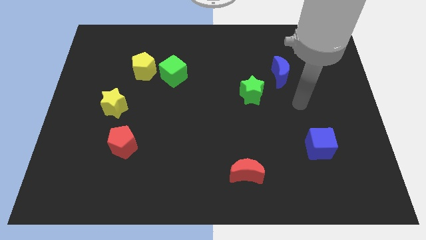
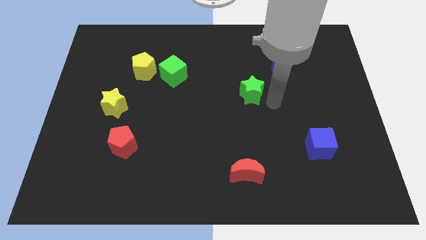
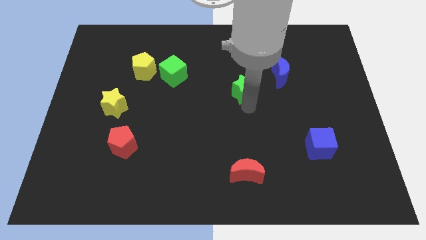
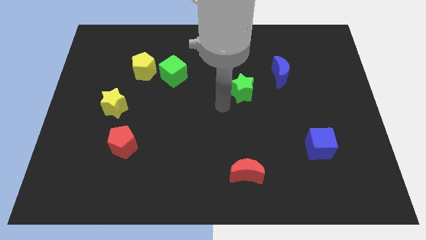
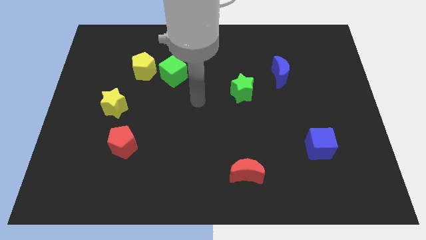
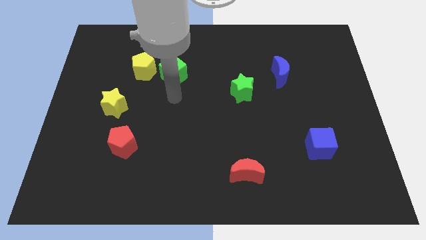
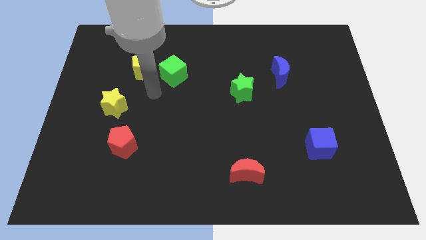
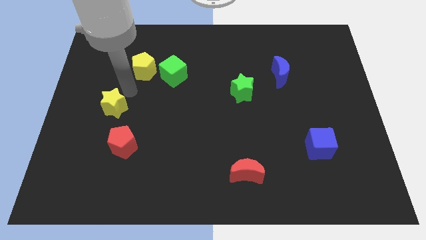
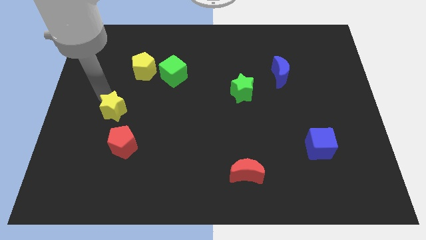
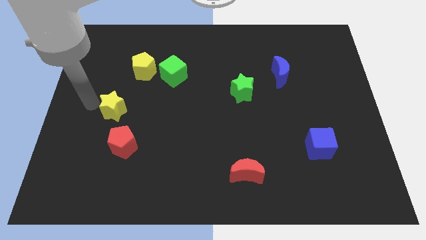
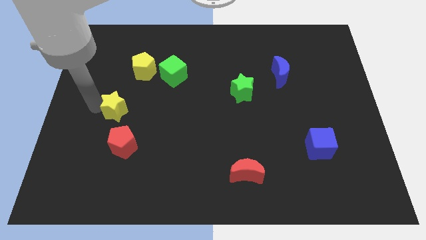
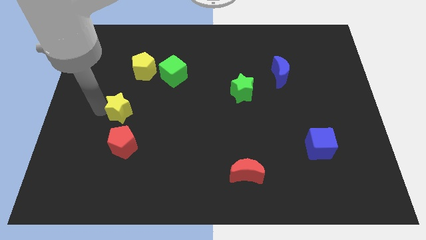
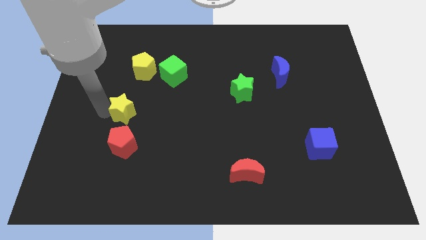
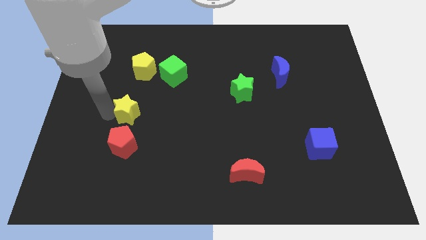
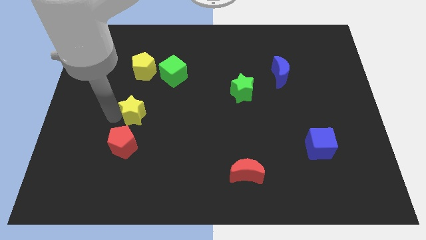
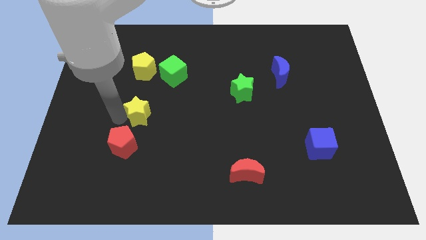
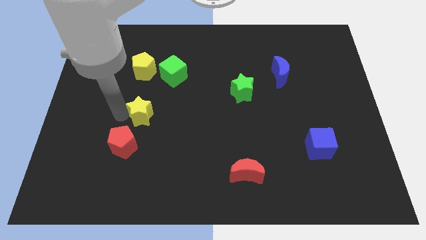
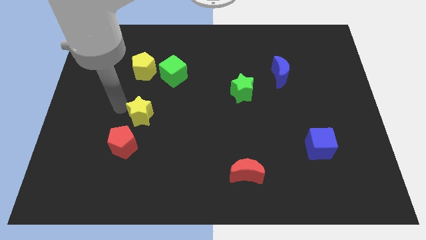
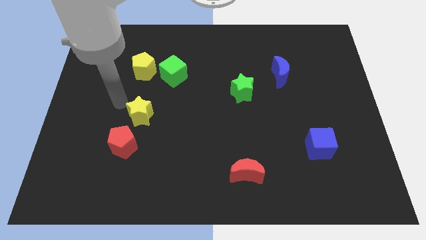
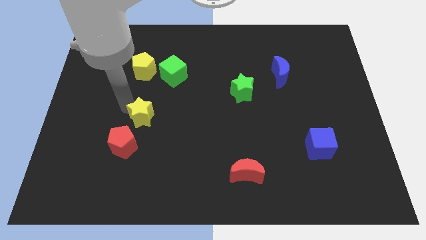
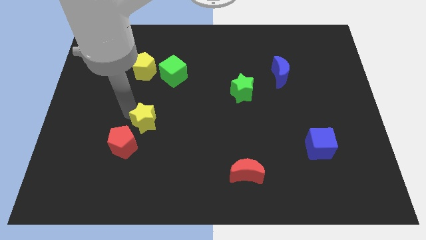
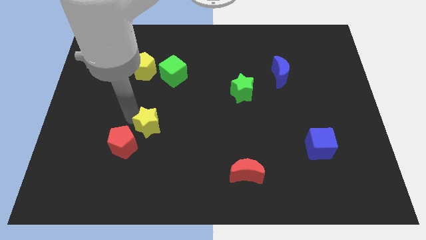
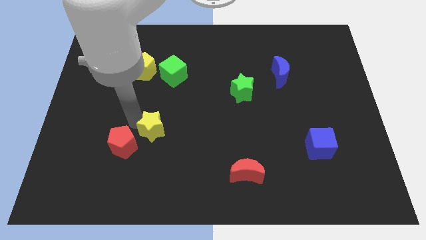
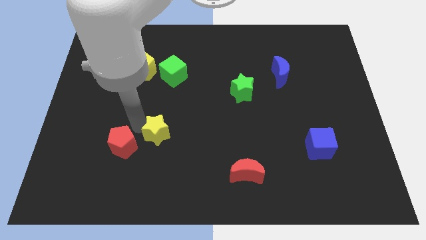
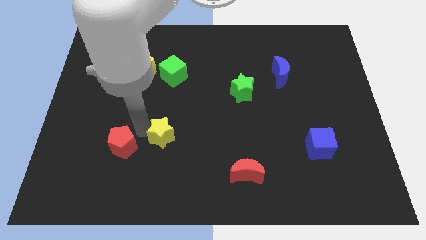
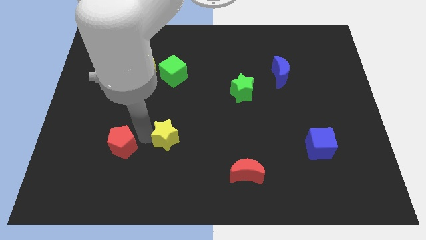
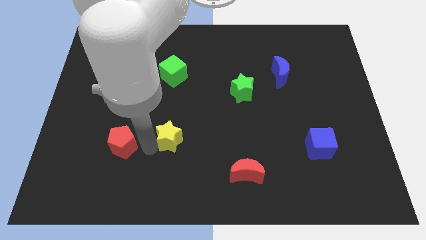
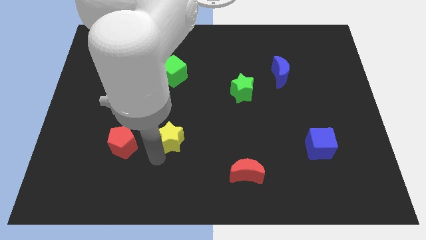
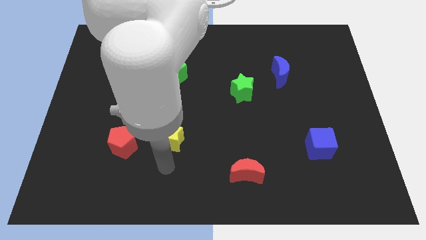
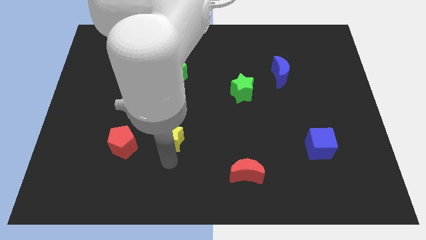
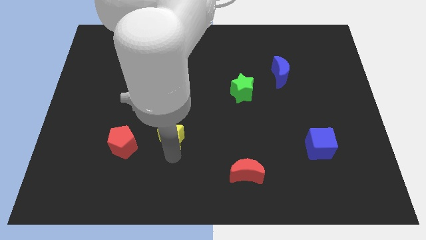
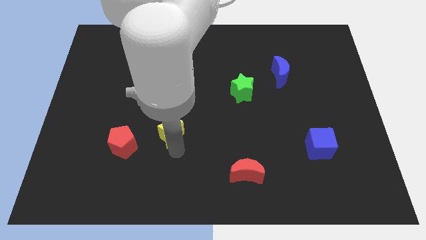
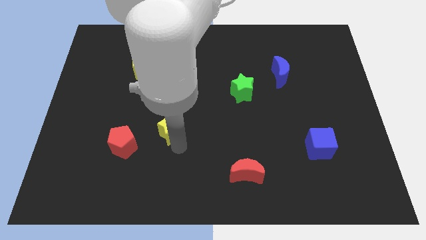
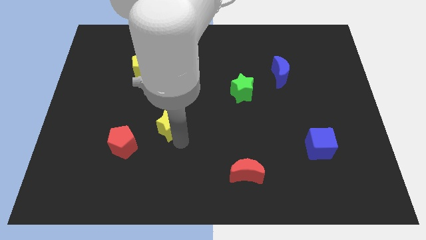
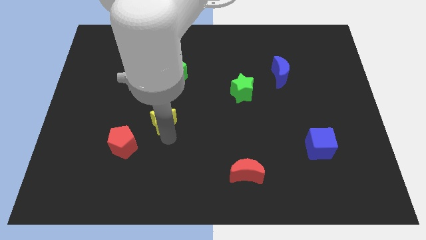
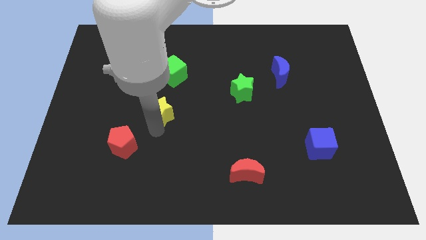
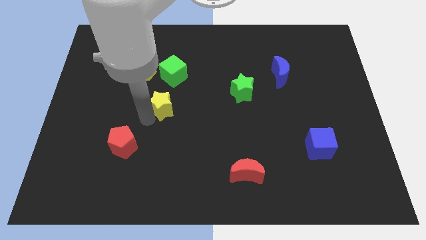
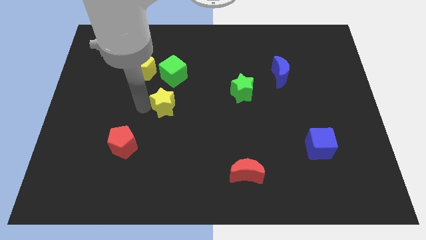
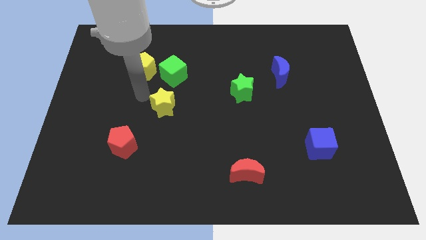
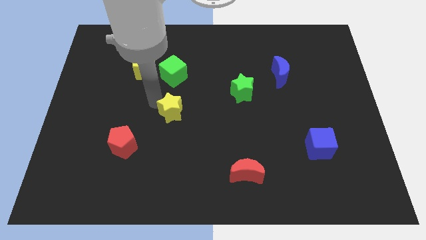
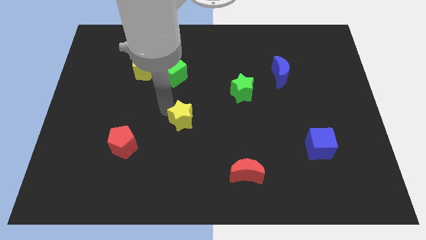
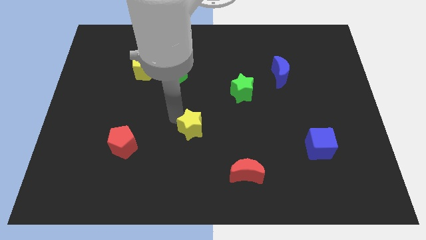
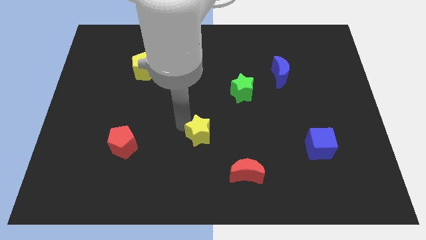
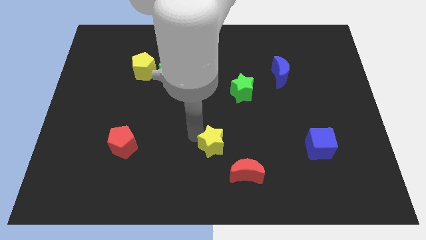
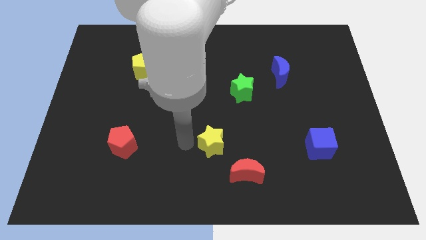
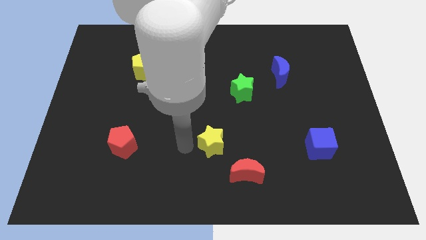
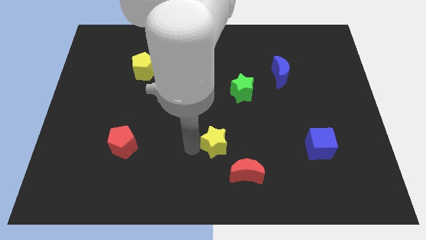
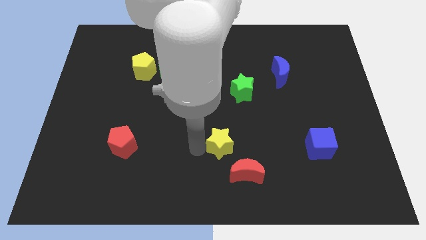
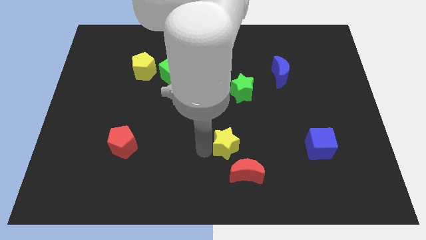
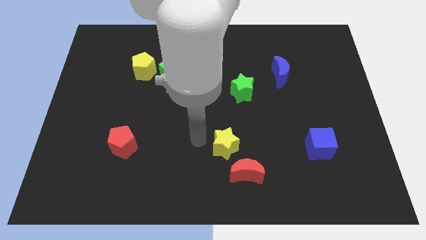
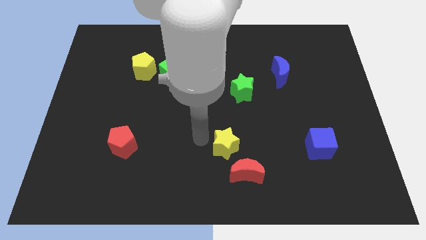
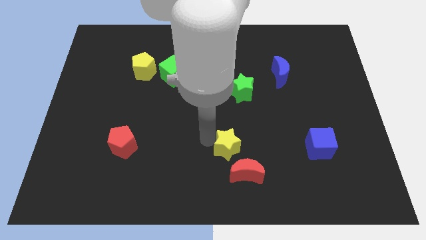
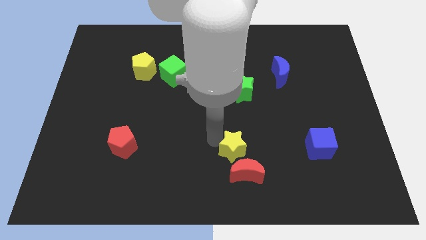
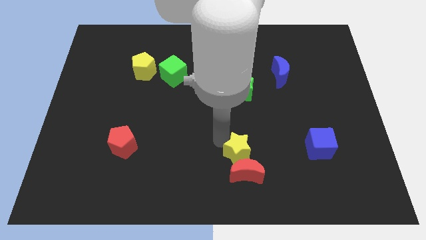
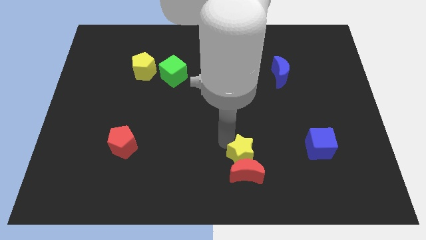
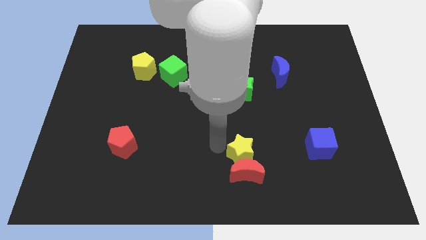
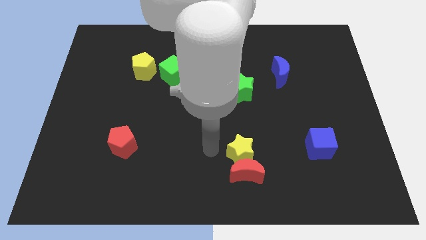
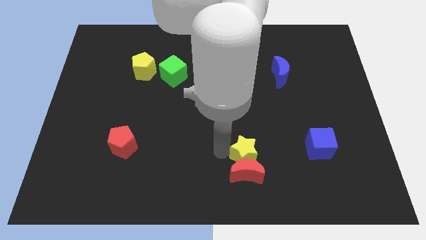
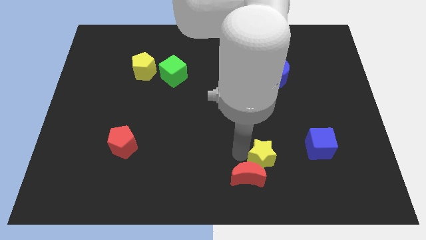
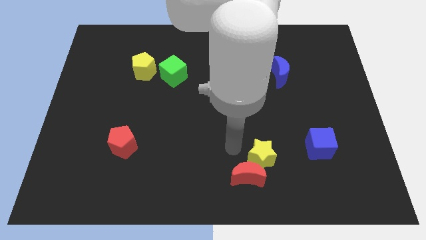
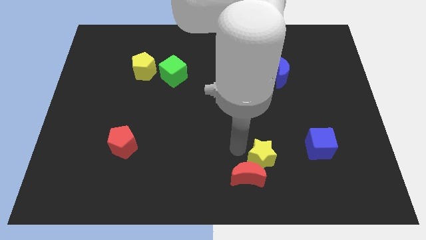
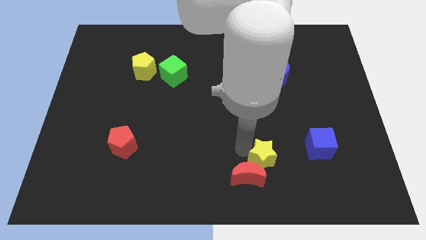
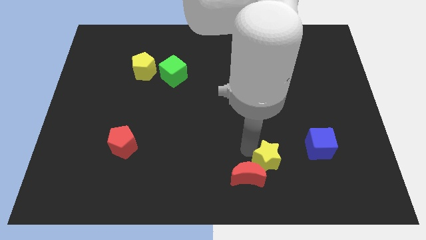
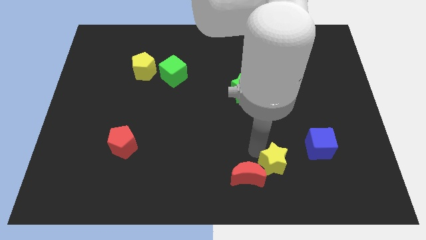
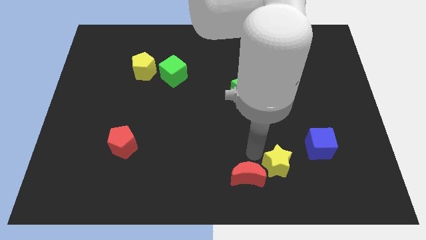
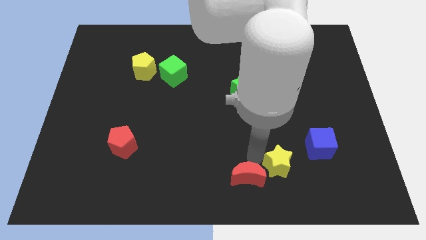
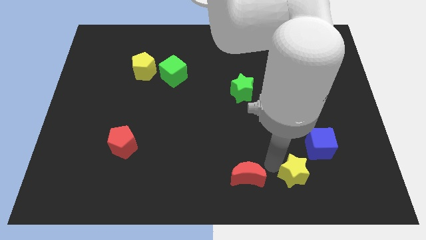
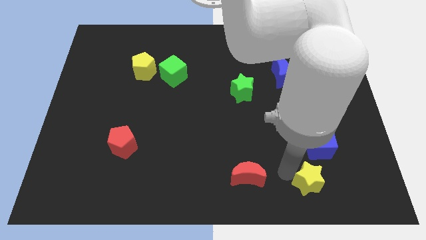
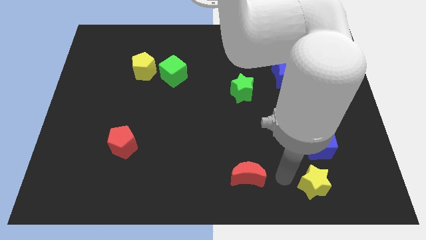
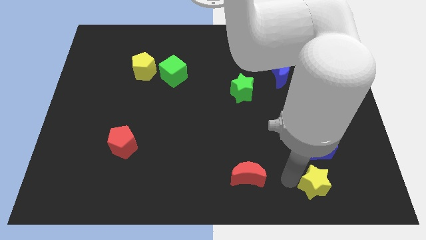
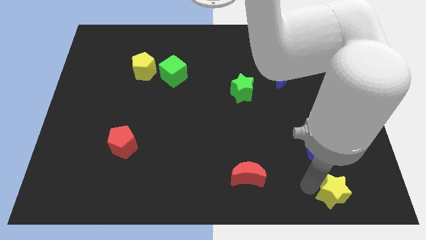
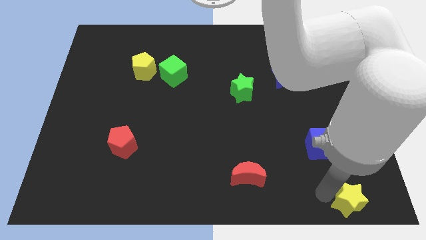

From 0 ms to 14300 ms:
put the yellow star to the bottom right corner
